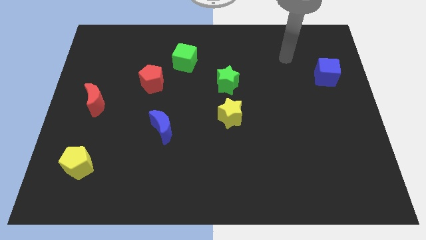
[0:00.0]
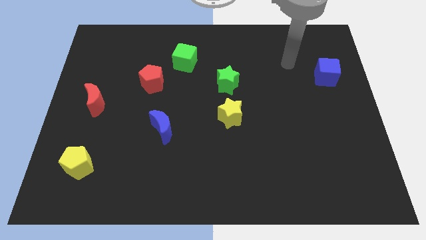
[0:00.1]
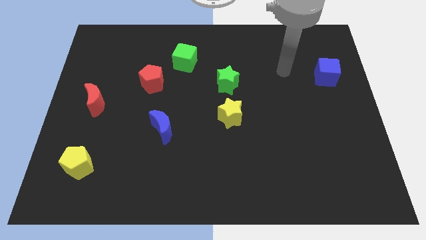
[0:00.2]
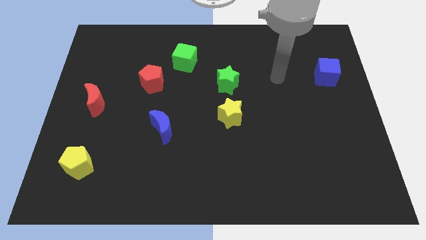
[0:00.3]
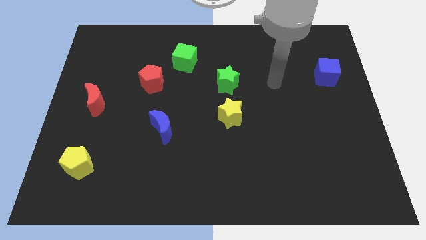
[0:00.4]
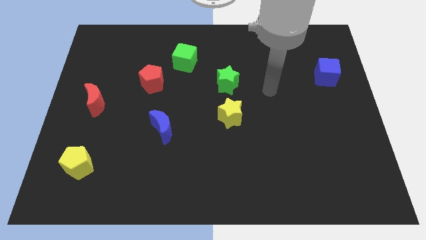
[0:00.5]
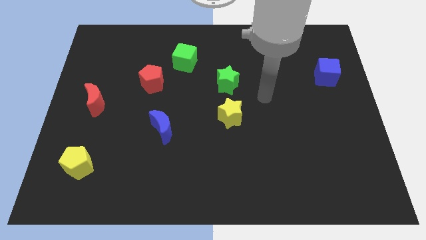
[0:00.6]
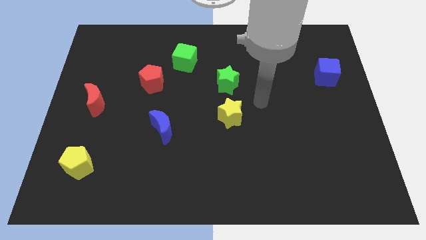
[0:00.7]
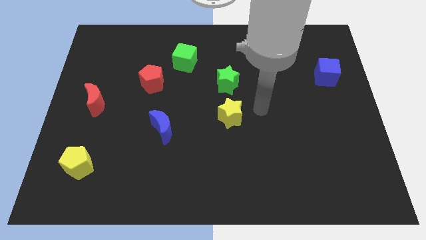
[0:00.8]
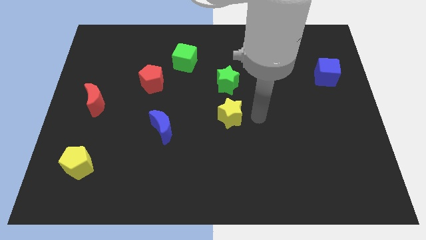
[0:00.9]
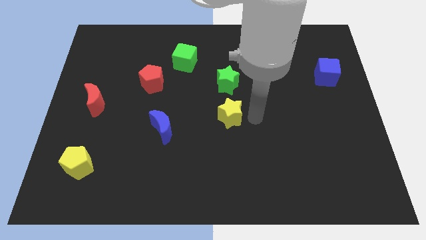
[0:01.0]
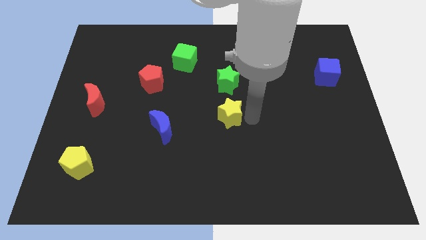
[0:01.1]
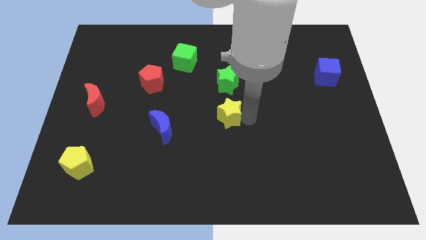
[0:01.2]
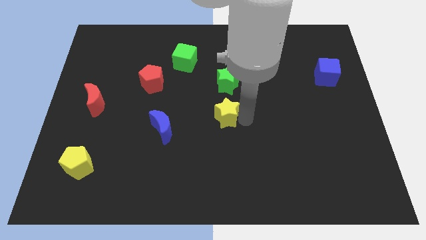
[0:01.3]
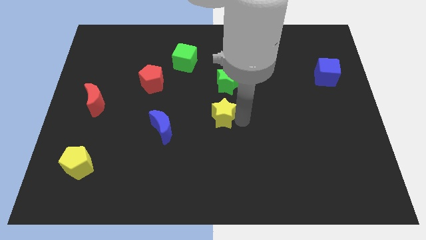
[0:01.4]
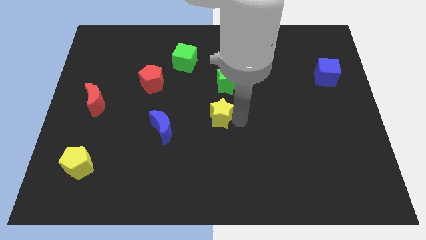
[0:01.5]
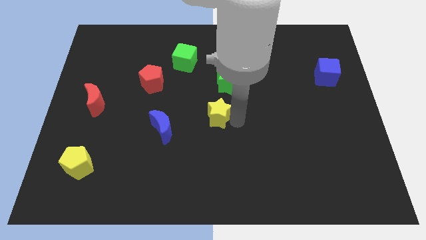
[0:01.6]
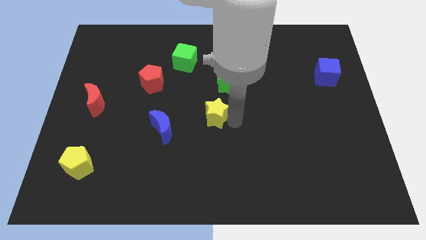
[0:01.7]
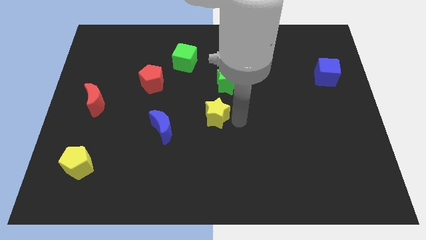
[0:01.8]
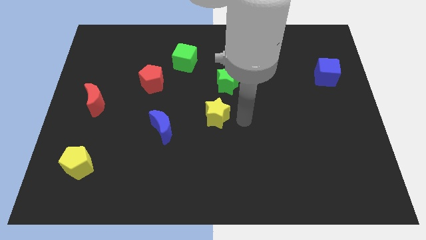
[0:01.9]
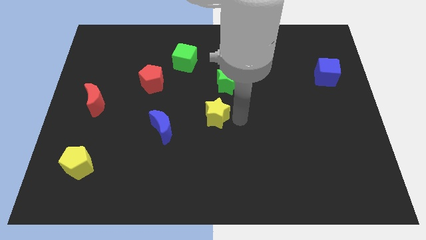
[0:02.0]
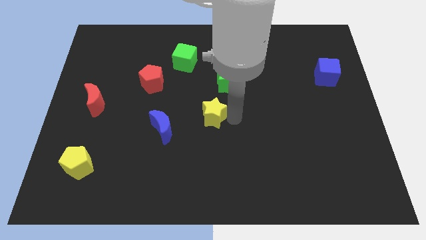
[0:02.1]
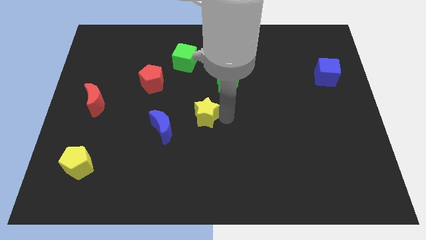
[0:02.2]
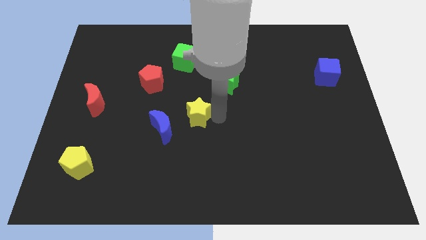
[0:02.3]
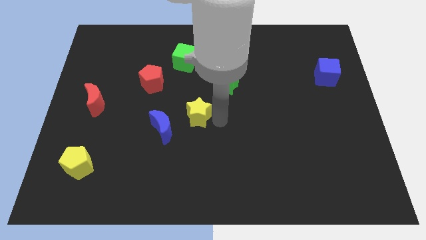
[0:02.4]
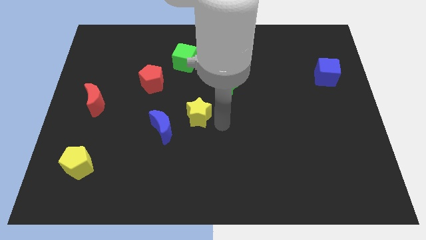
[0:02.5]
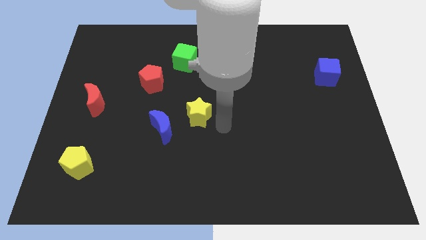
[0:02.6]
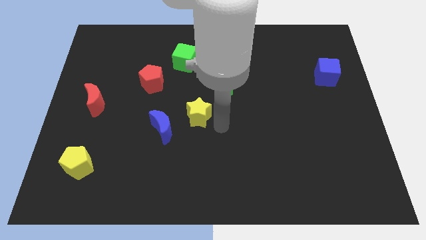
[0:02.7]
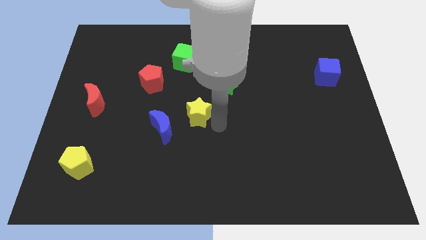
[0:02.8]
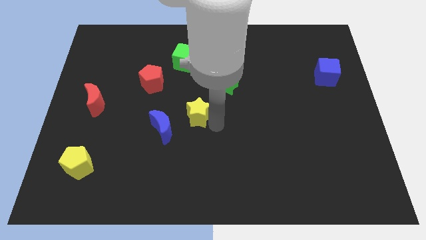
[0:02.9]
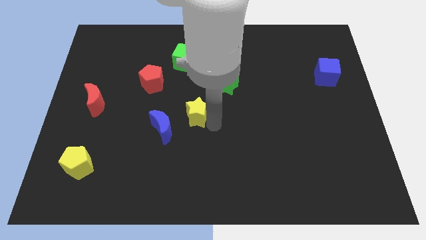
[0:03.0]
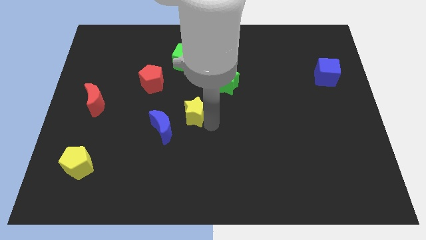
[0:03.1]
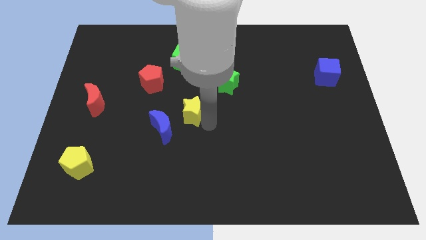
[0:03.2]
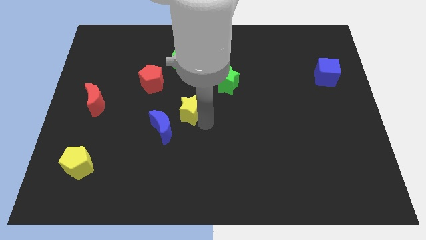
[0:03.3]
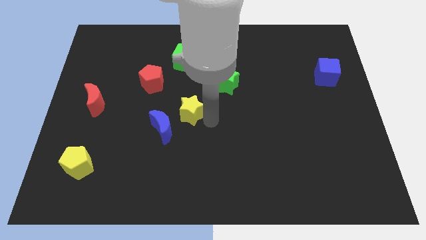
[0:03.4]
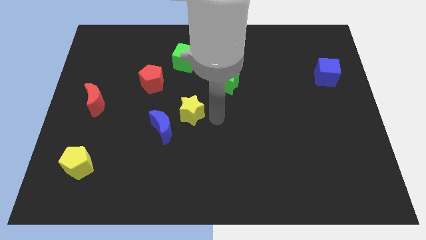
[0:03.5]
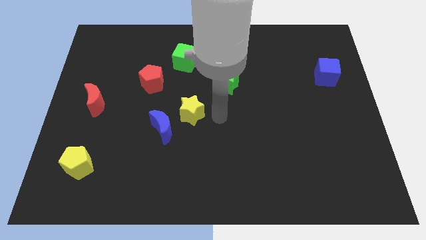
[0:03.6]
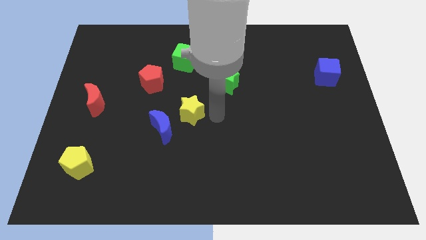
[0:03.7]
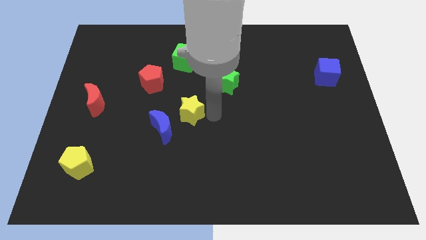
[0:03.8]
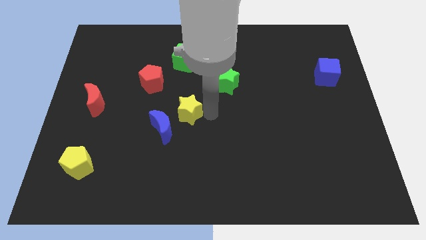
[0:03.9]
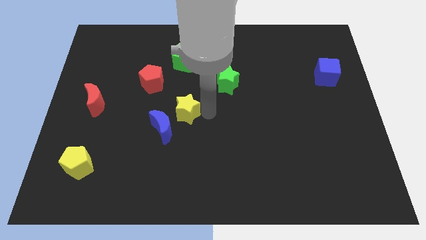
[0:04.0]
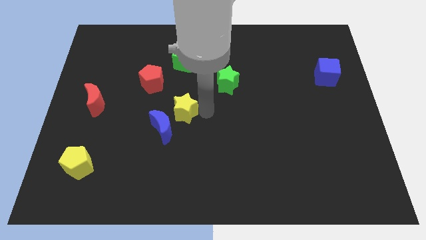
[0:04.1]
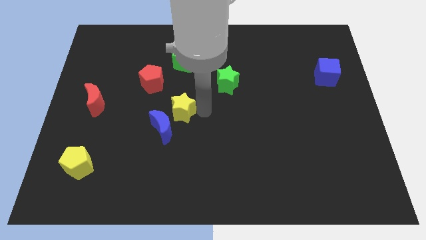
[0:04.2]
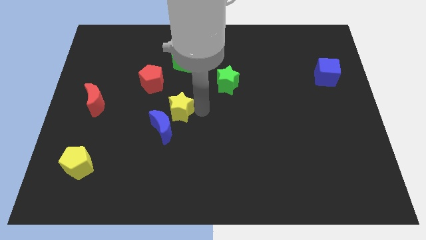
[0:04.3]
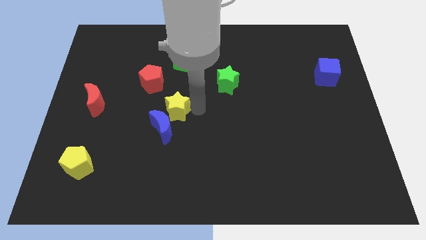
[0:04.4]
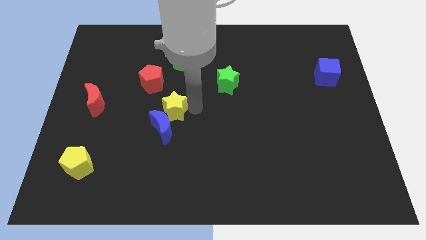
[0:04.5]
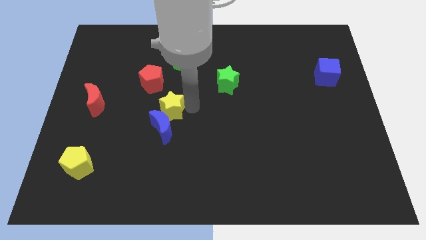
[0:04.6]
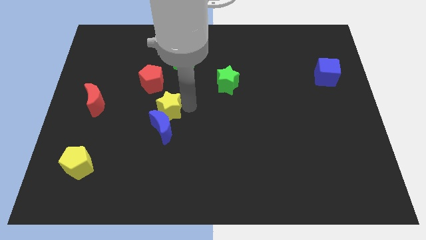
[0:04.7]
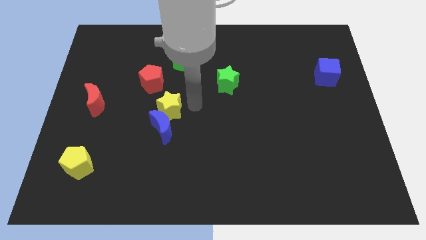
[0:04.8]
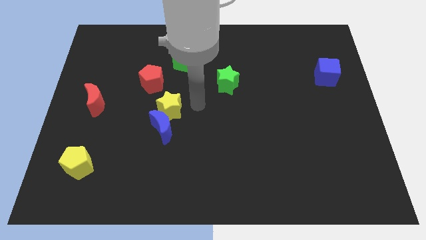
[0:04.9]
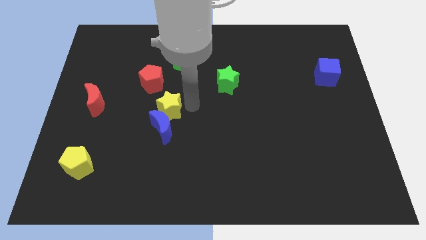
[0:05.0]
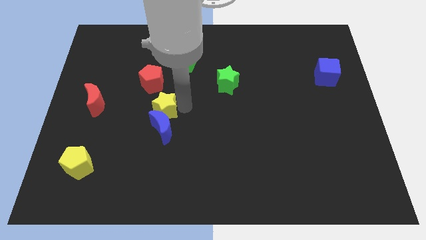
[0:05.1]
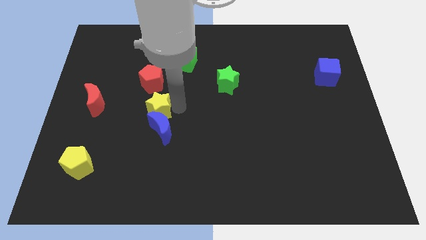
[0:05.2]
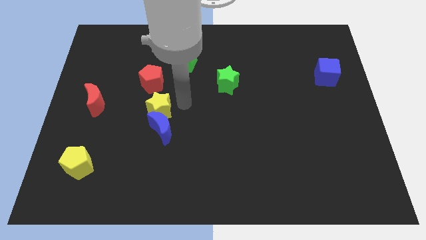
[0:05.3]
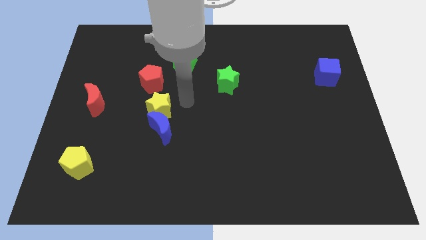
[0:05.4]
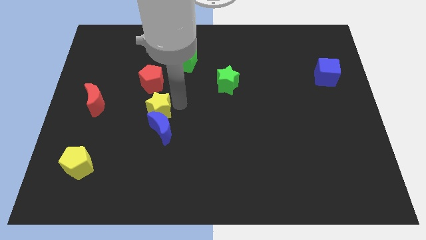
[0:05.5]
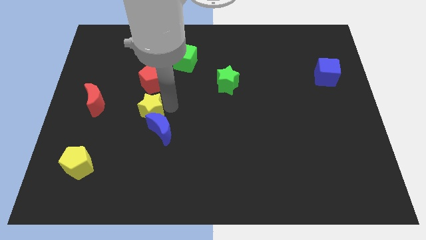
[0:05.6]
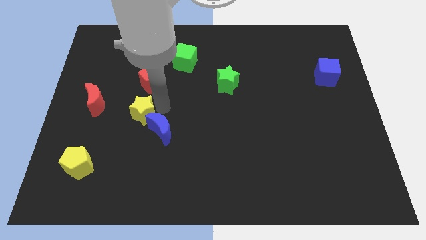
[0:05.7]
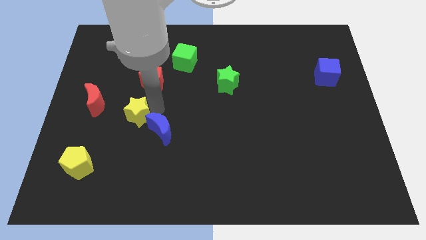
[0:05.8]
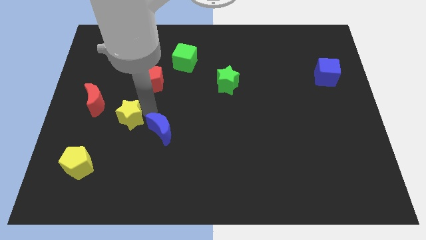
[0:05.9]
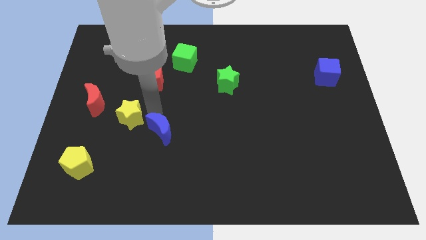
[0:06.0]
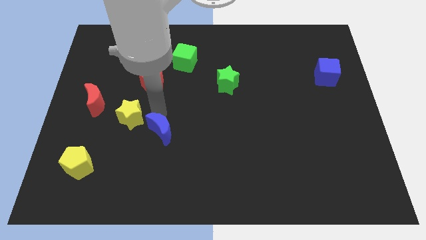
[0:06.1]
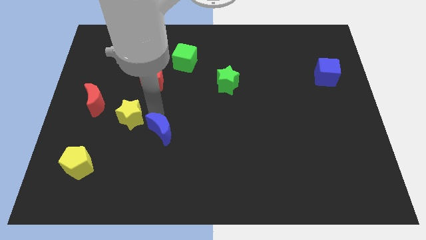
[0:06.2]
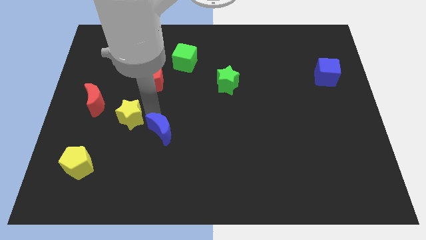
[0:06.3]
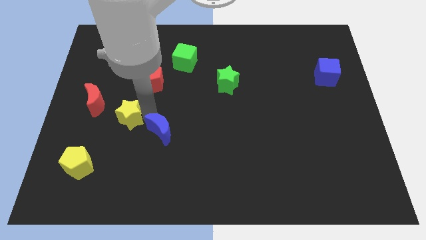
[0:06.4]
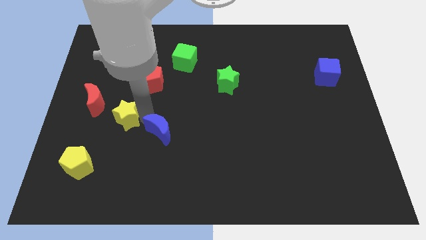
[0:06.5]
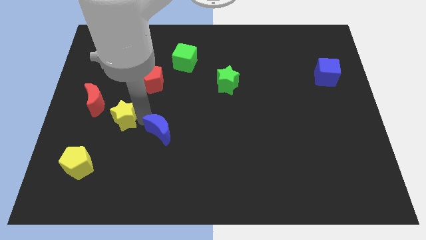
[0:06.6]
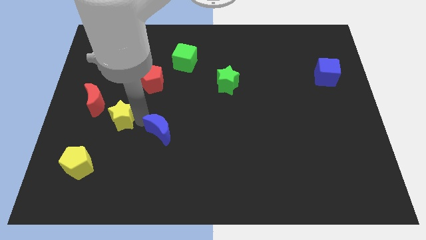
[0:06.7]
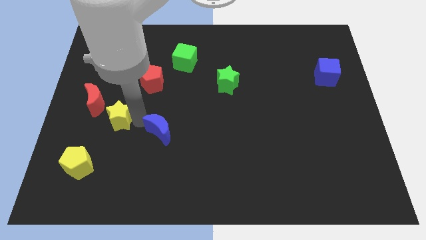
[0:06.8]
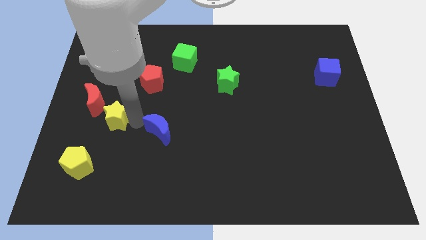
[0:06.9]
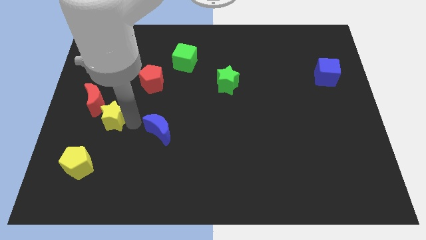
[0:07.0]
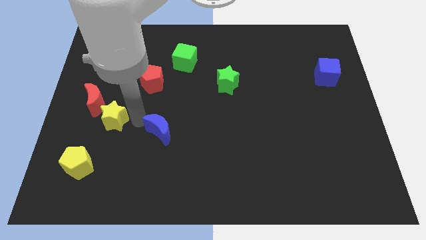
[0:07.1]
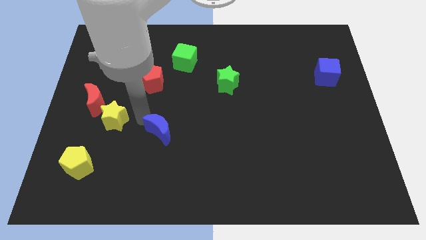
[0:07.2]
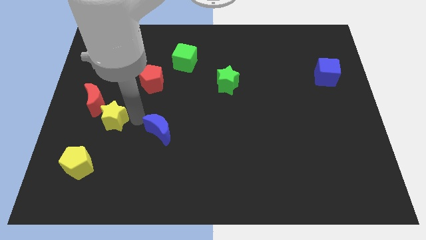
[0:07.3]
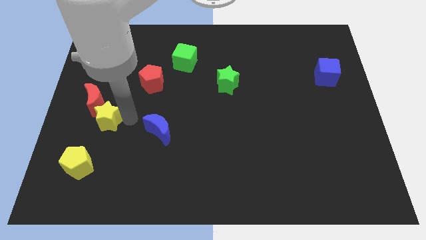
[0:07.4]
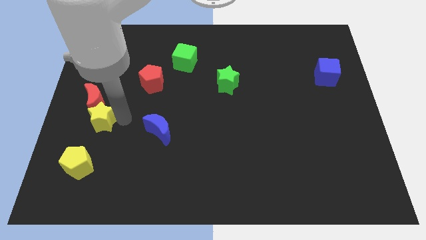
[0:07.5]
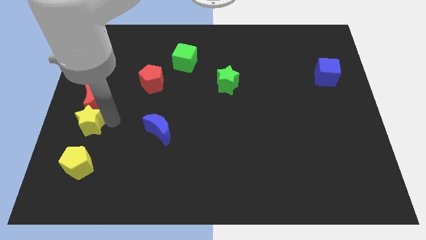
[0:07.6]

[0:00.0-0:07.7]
slide the yellow star to the left side of the board
